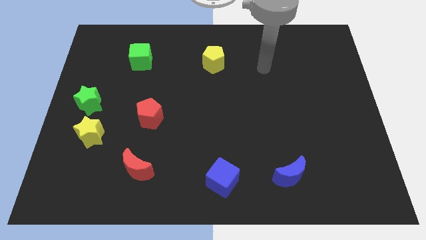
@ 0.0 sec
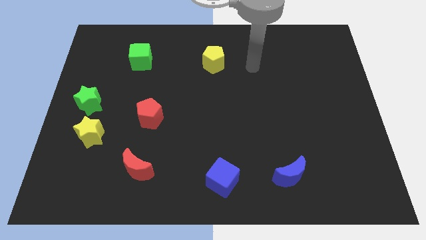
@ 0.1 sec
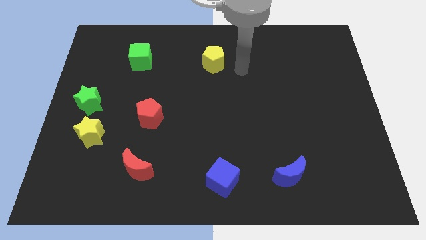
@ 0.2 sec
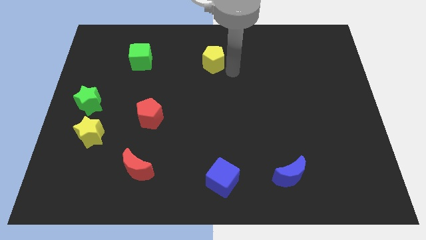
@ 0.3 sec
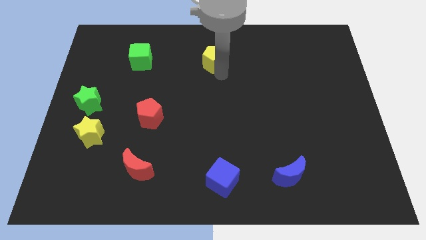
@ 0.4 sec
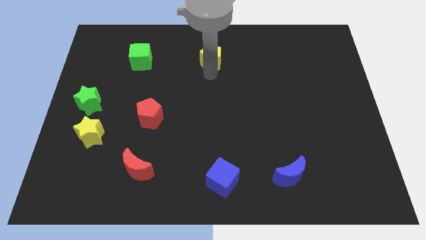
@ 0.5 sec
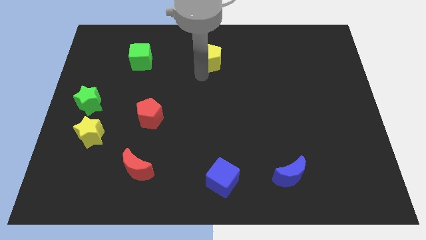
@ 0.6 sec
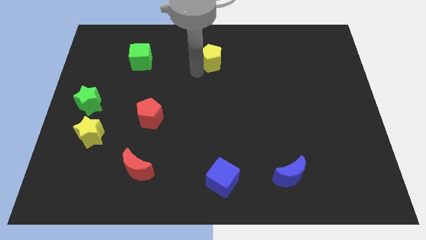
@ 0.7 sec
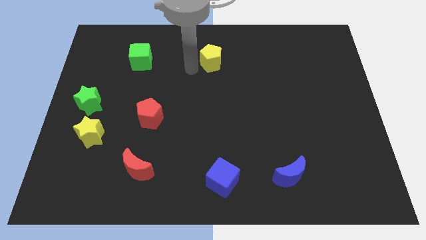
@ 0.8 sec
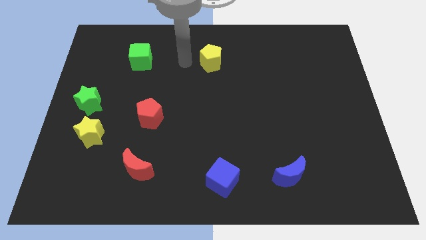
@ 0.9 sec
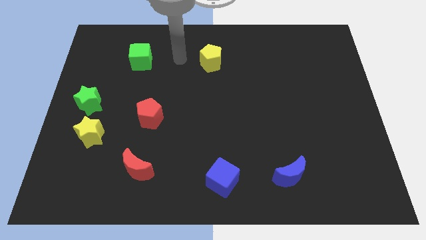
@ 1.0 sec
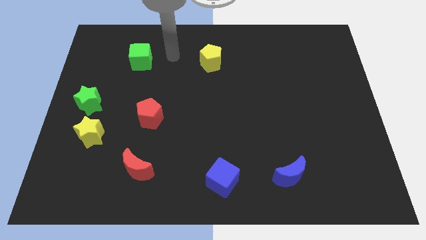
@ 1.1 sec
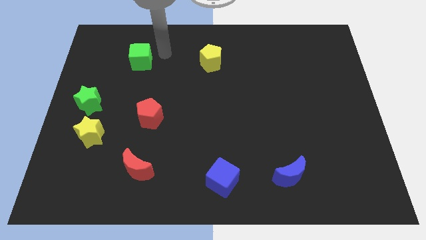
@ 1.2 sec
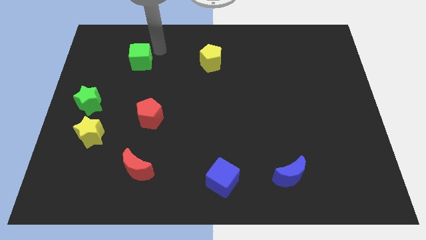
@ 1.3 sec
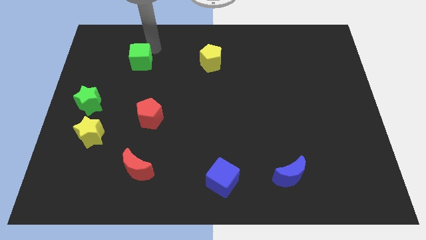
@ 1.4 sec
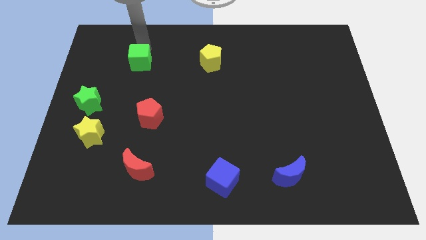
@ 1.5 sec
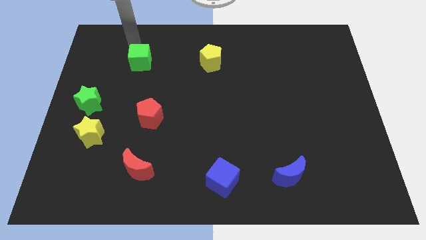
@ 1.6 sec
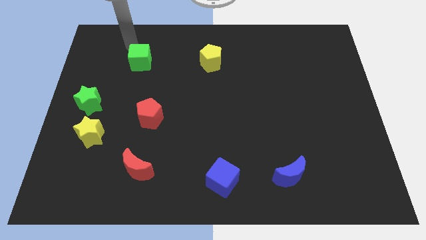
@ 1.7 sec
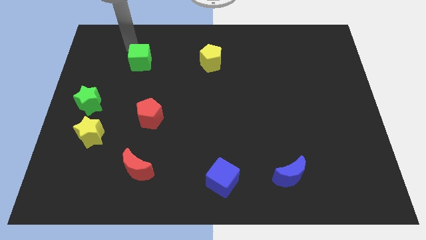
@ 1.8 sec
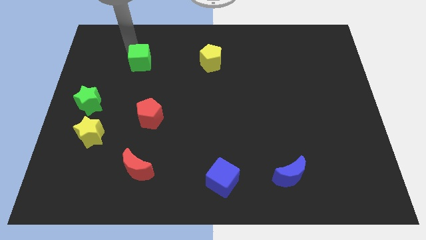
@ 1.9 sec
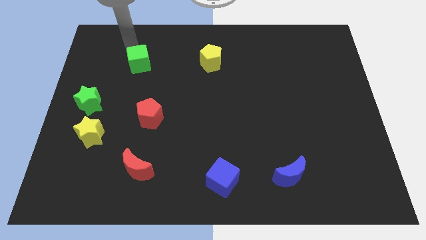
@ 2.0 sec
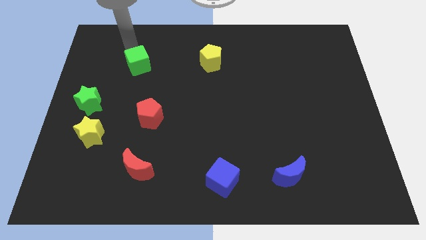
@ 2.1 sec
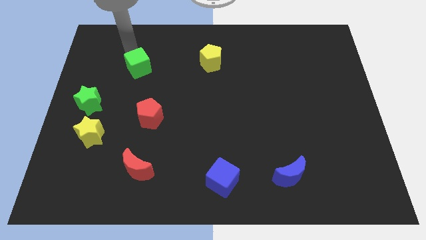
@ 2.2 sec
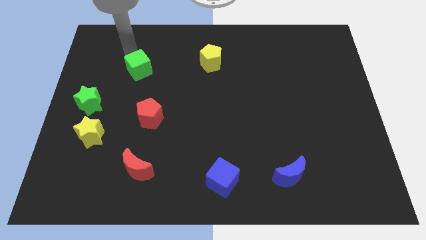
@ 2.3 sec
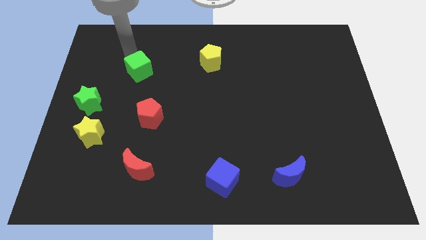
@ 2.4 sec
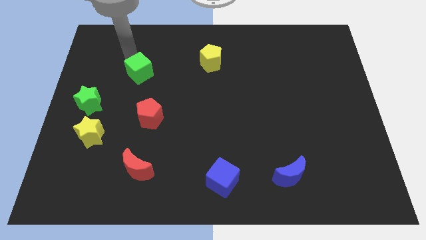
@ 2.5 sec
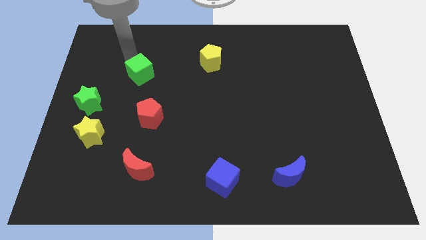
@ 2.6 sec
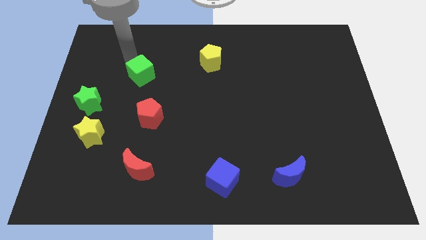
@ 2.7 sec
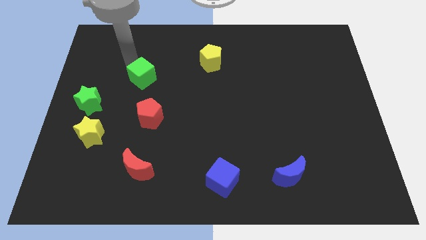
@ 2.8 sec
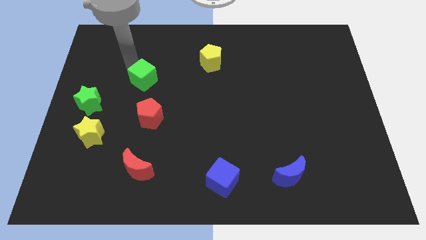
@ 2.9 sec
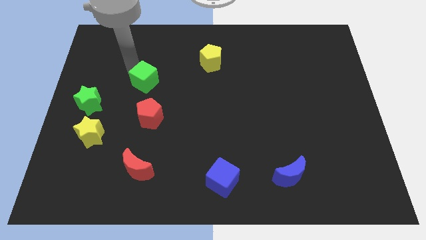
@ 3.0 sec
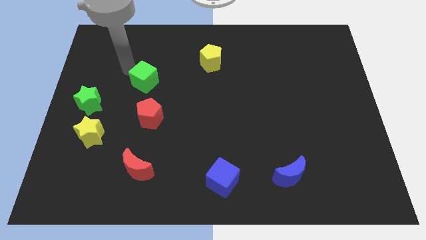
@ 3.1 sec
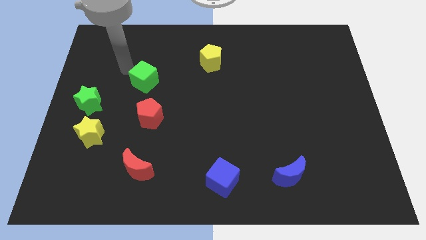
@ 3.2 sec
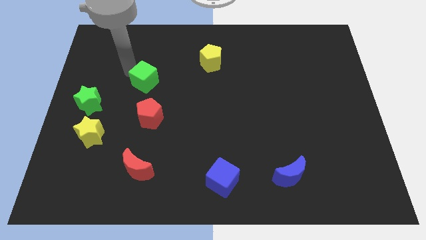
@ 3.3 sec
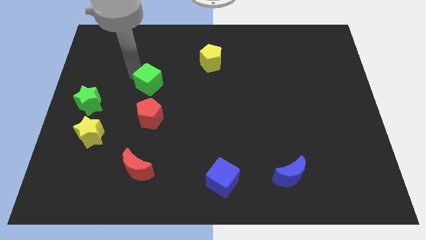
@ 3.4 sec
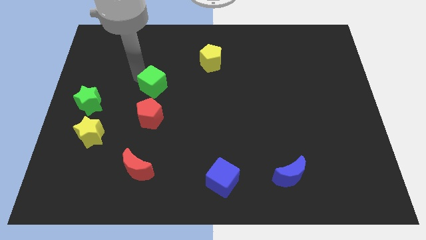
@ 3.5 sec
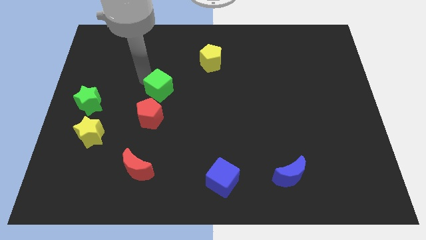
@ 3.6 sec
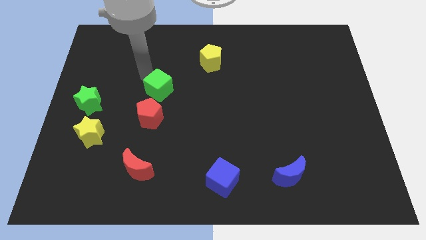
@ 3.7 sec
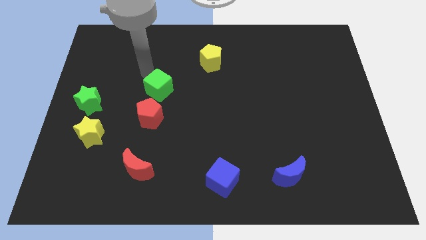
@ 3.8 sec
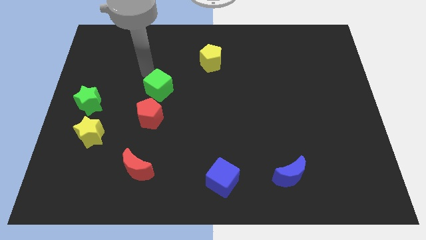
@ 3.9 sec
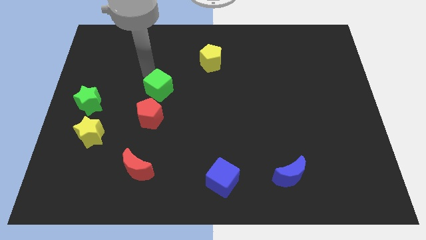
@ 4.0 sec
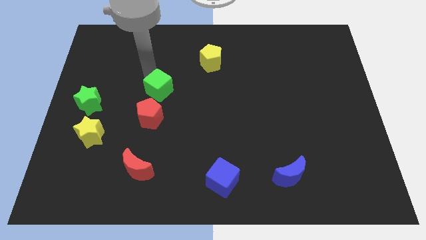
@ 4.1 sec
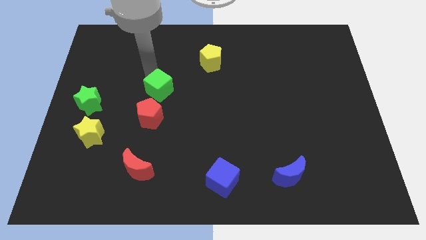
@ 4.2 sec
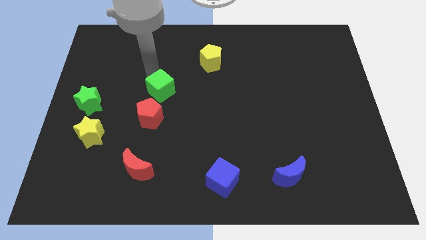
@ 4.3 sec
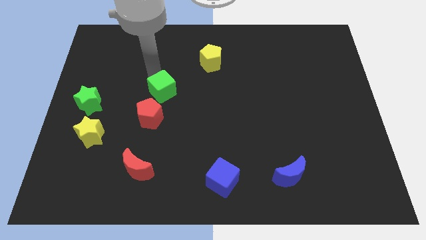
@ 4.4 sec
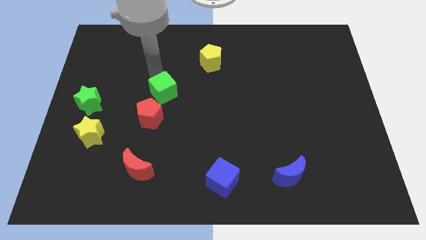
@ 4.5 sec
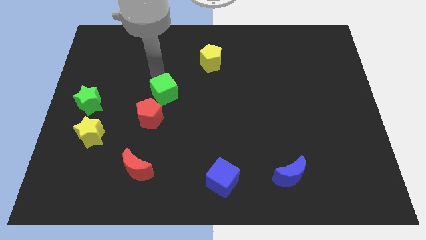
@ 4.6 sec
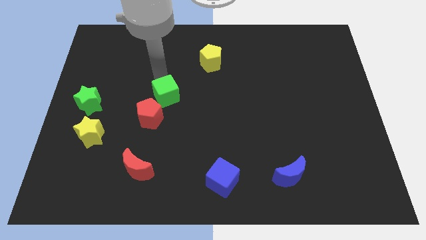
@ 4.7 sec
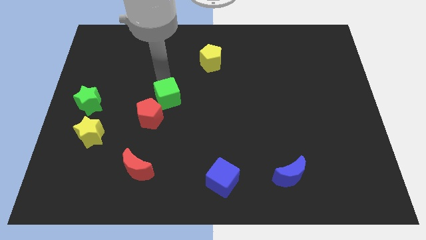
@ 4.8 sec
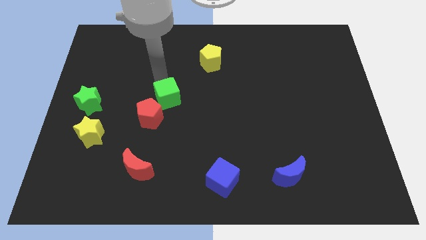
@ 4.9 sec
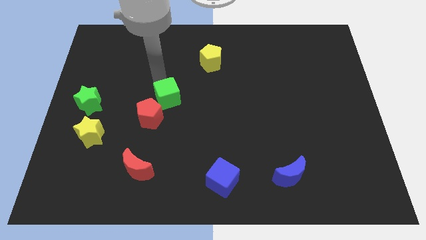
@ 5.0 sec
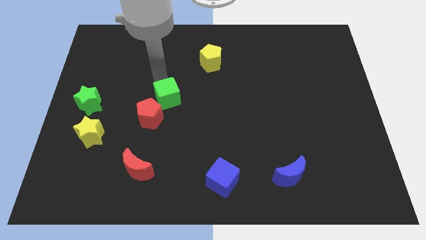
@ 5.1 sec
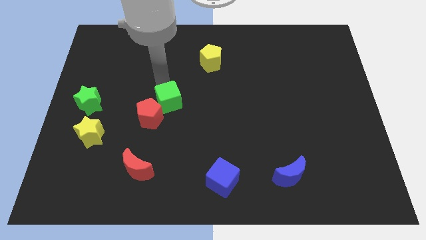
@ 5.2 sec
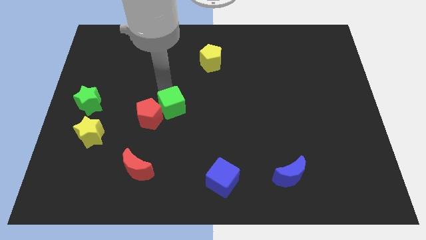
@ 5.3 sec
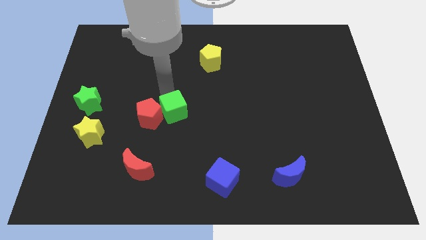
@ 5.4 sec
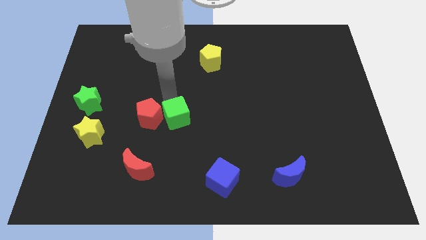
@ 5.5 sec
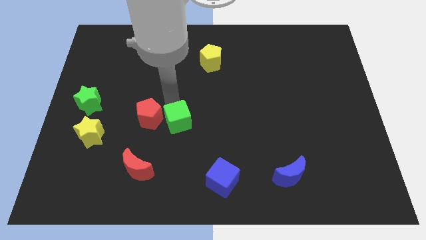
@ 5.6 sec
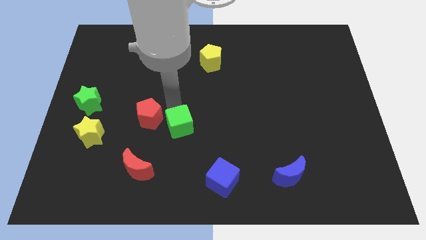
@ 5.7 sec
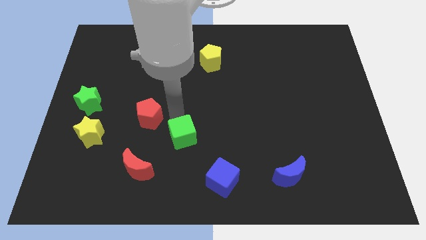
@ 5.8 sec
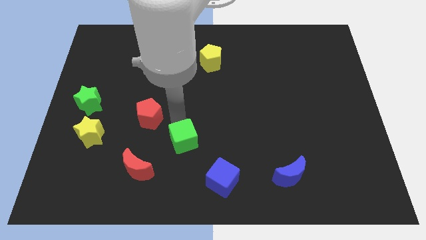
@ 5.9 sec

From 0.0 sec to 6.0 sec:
slide the green cube to the top left side of the blue cube

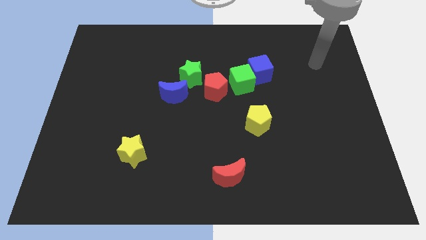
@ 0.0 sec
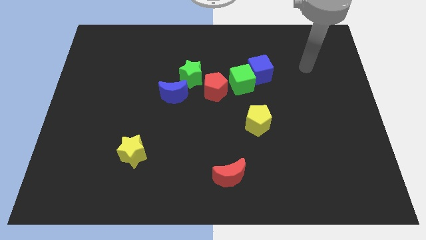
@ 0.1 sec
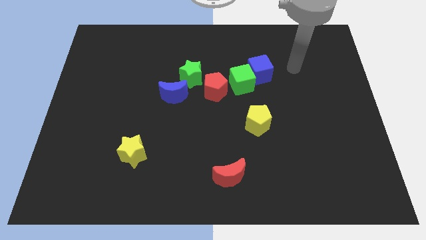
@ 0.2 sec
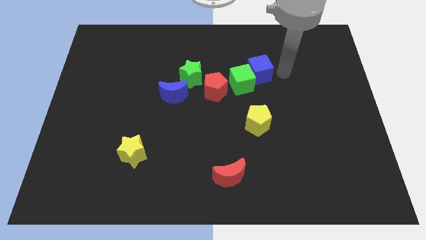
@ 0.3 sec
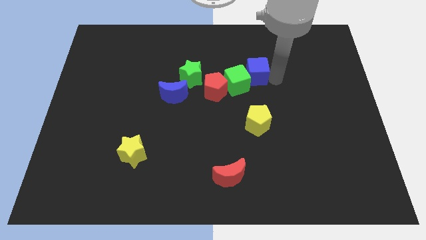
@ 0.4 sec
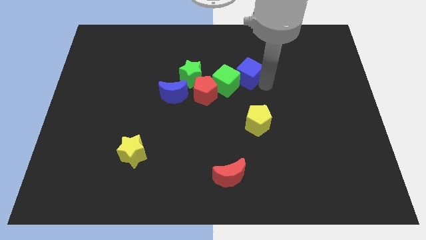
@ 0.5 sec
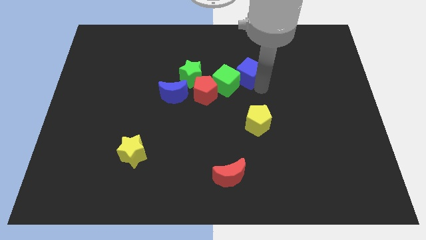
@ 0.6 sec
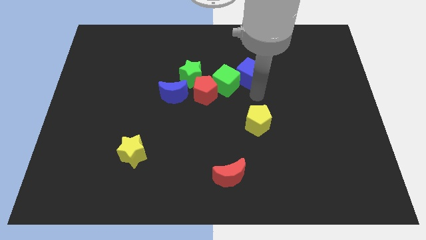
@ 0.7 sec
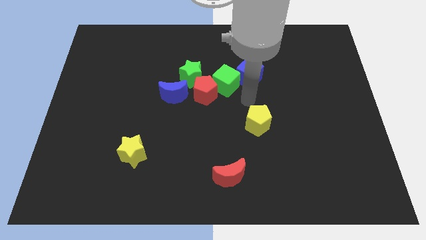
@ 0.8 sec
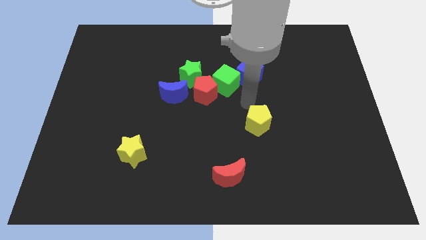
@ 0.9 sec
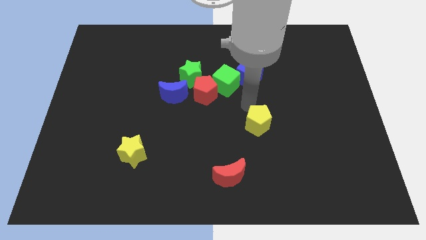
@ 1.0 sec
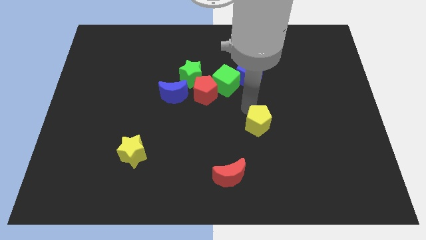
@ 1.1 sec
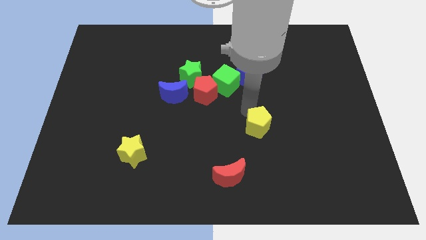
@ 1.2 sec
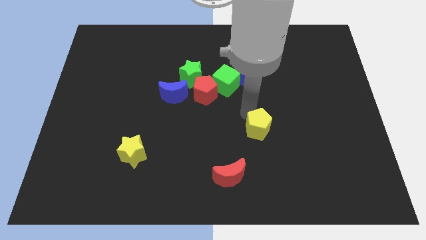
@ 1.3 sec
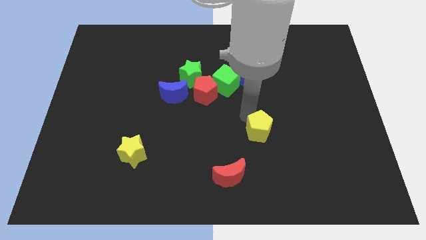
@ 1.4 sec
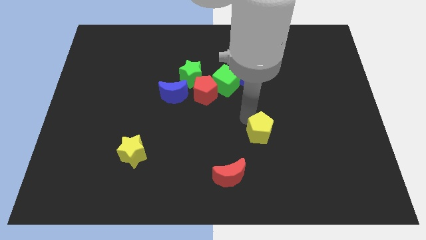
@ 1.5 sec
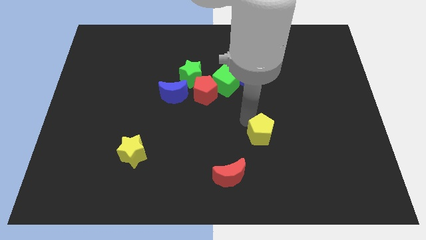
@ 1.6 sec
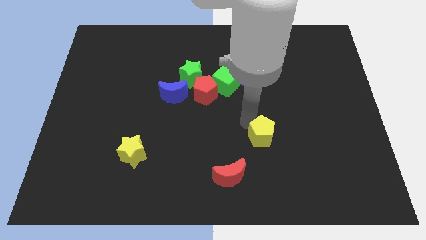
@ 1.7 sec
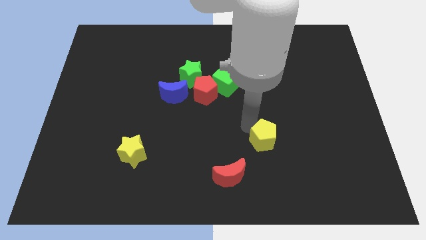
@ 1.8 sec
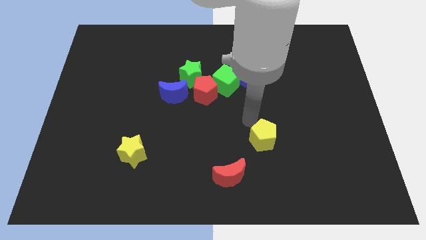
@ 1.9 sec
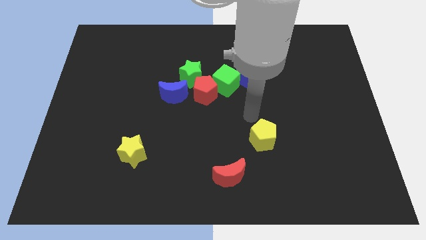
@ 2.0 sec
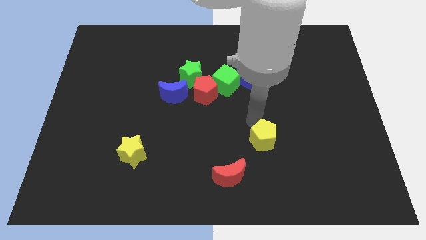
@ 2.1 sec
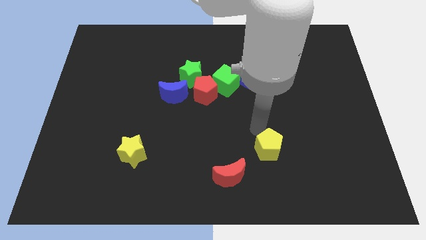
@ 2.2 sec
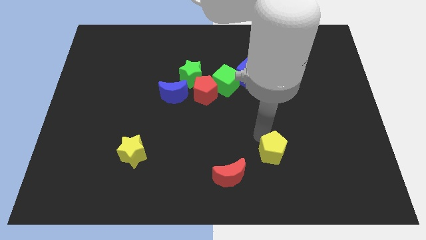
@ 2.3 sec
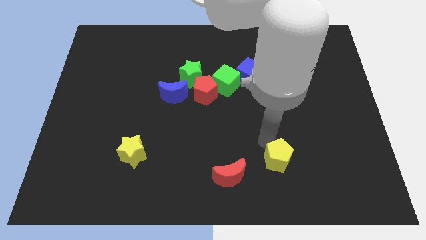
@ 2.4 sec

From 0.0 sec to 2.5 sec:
move the yellow pentagon to the right side of the red moon
